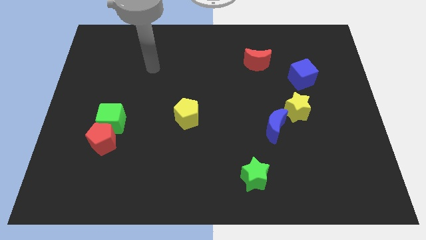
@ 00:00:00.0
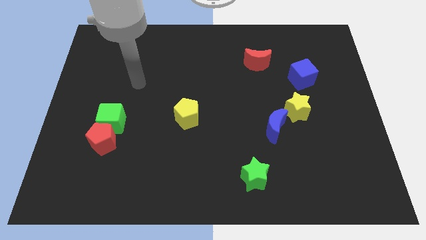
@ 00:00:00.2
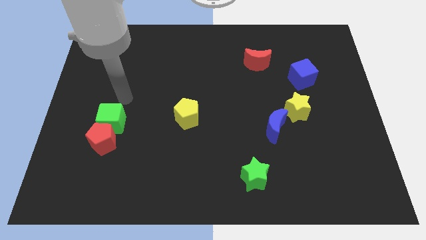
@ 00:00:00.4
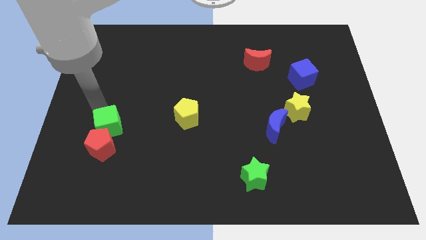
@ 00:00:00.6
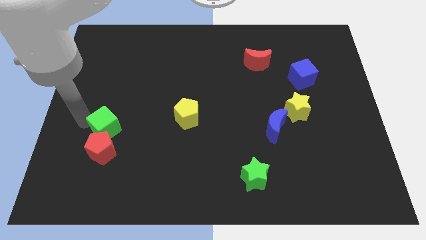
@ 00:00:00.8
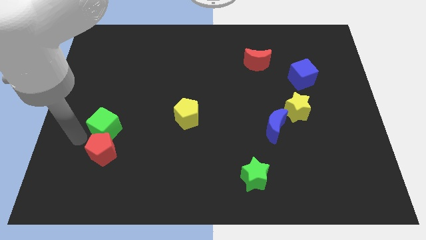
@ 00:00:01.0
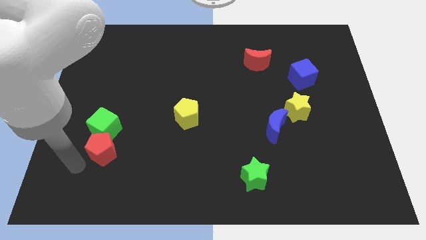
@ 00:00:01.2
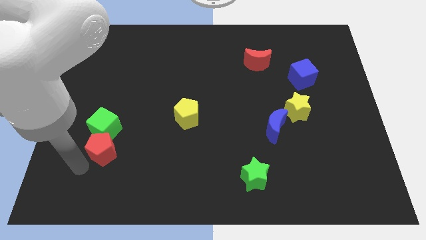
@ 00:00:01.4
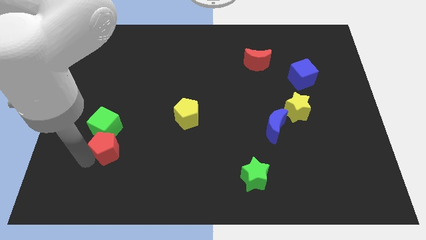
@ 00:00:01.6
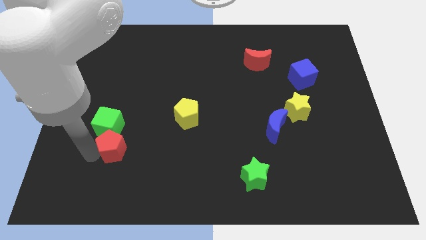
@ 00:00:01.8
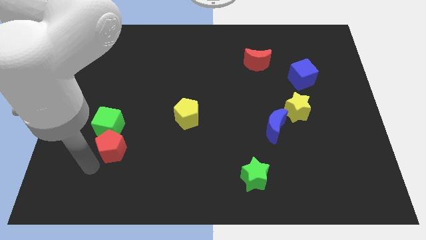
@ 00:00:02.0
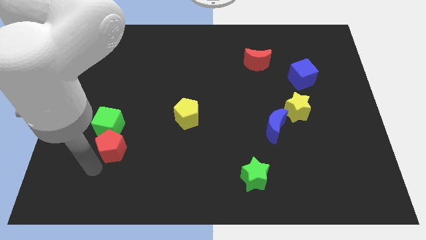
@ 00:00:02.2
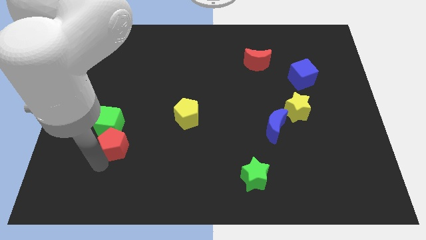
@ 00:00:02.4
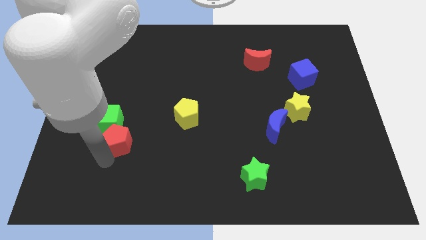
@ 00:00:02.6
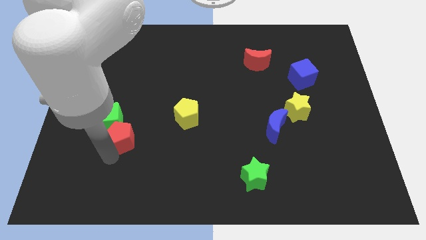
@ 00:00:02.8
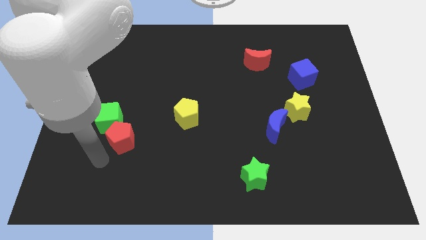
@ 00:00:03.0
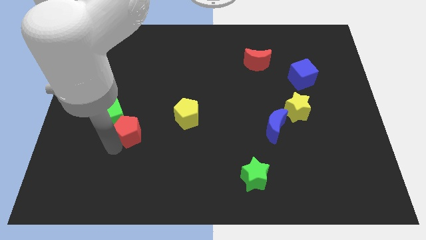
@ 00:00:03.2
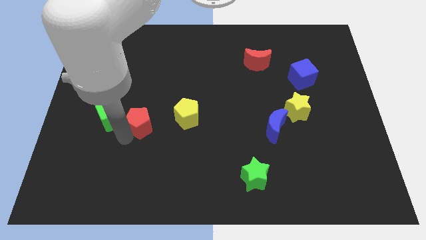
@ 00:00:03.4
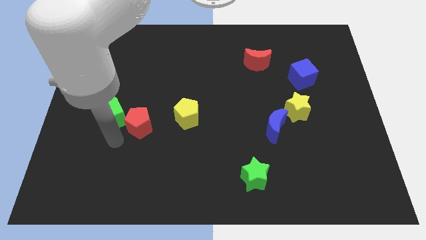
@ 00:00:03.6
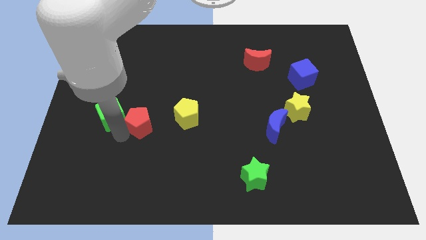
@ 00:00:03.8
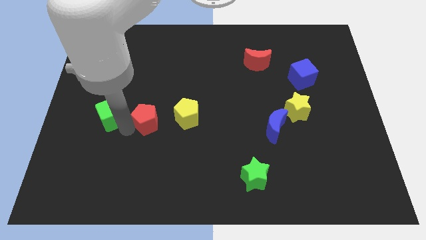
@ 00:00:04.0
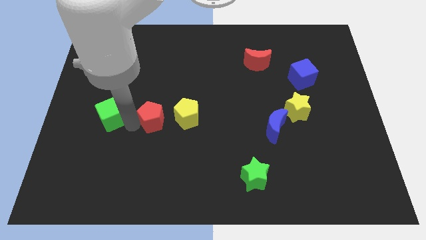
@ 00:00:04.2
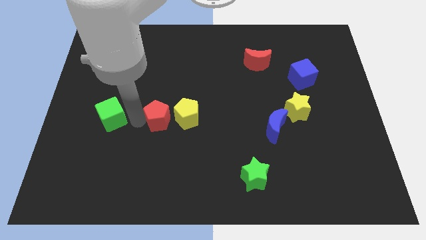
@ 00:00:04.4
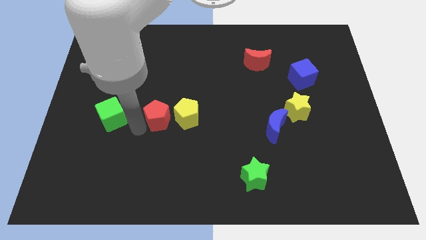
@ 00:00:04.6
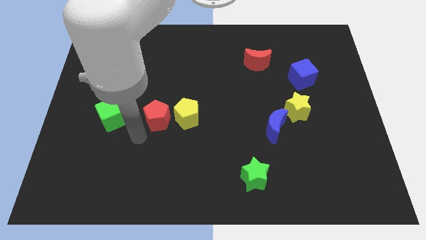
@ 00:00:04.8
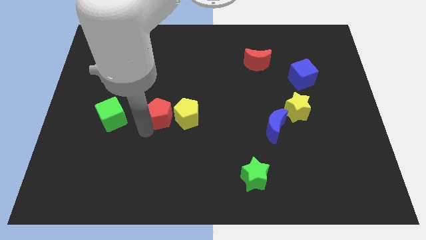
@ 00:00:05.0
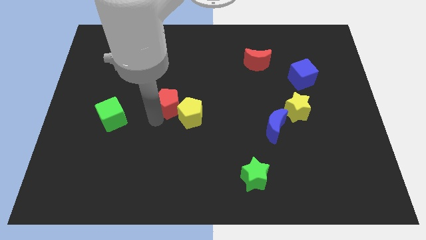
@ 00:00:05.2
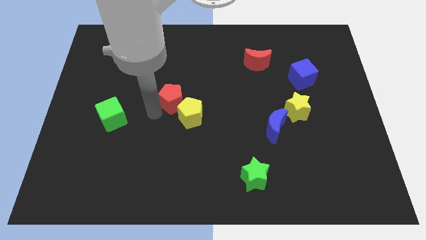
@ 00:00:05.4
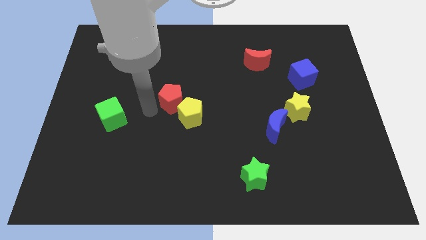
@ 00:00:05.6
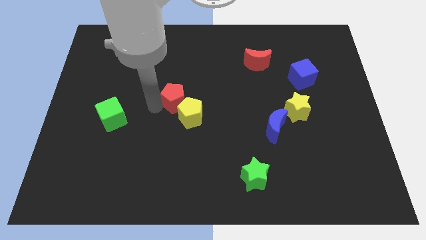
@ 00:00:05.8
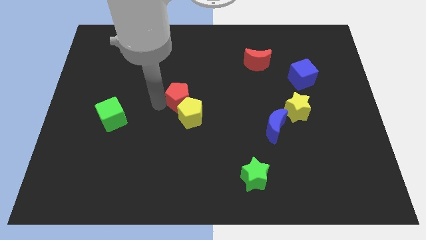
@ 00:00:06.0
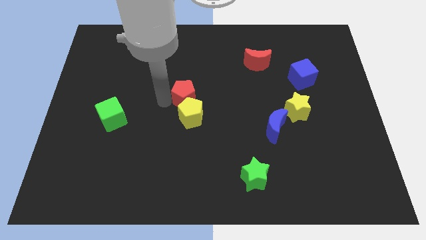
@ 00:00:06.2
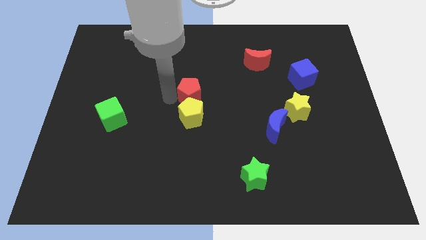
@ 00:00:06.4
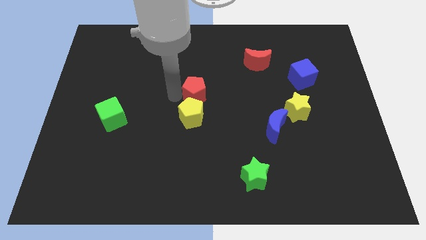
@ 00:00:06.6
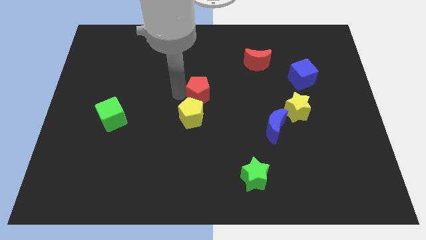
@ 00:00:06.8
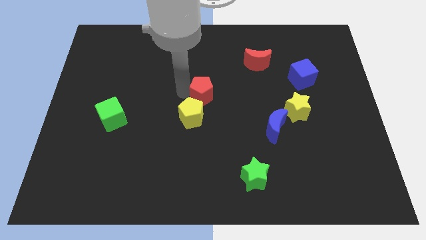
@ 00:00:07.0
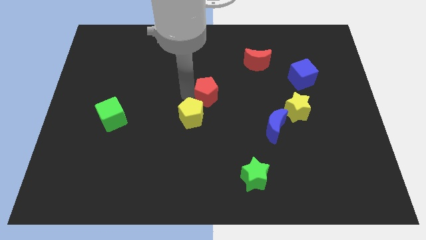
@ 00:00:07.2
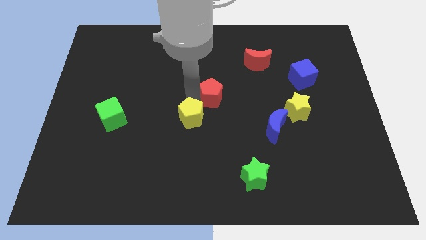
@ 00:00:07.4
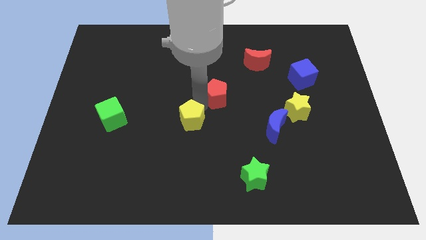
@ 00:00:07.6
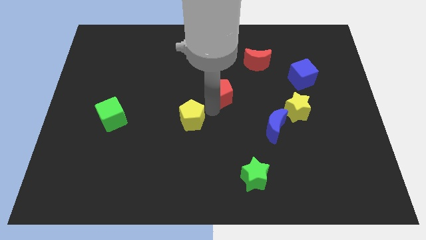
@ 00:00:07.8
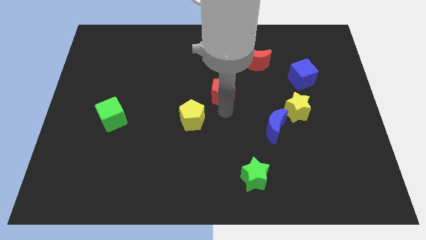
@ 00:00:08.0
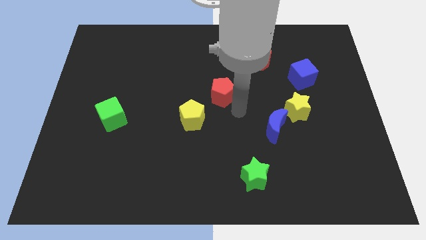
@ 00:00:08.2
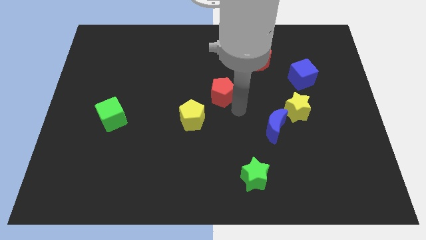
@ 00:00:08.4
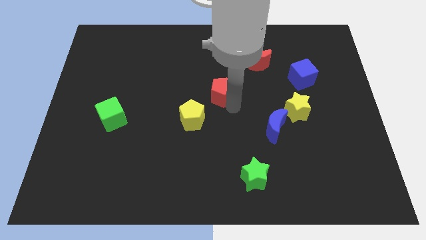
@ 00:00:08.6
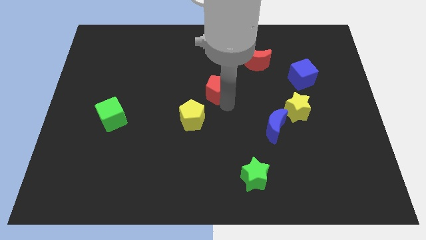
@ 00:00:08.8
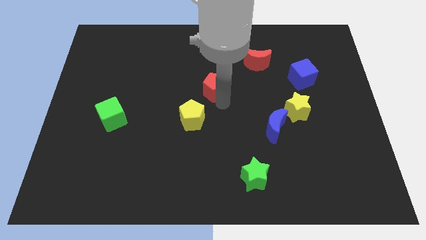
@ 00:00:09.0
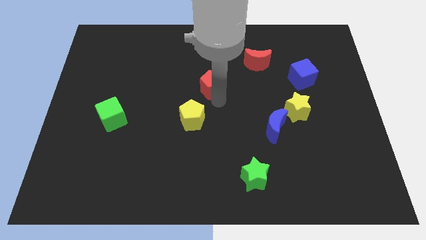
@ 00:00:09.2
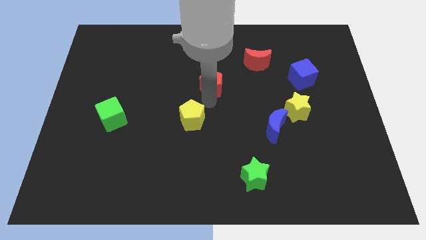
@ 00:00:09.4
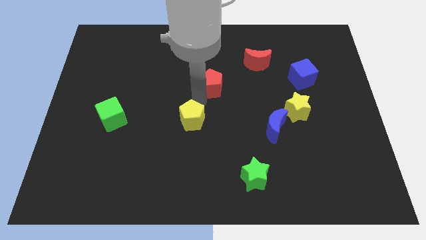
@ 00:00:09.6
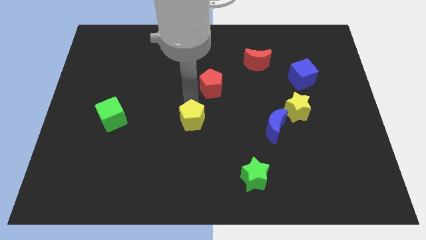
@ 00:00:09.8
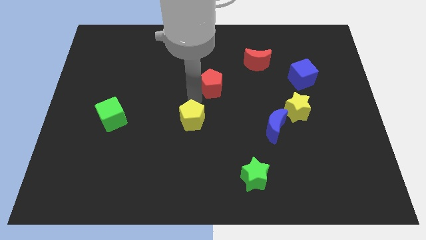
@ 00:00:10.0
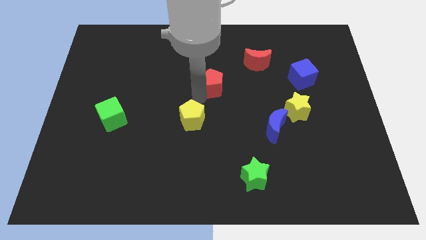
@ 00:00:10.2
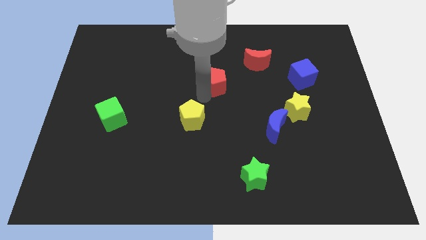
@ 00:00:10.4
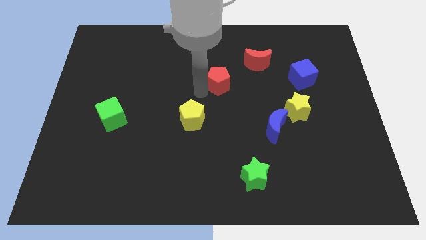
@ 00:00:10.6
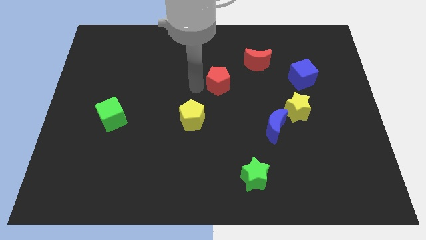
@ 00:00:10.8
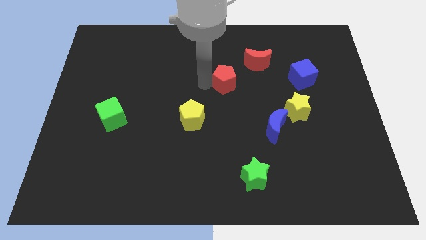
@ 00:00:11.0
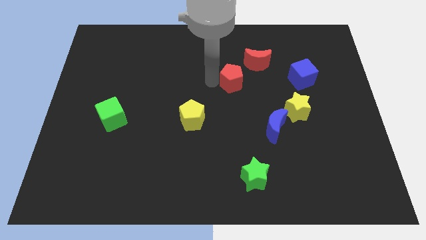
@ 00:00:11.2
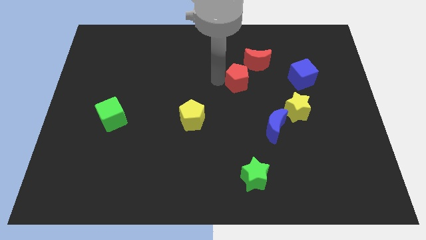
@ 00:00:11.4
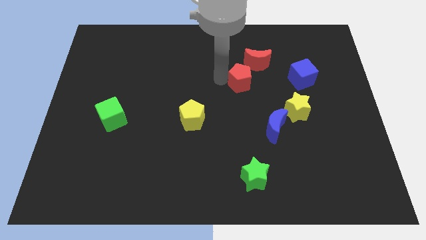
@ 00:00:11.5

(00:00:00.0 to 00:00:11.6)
move the red pentagon just left of the blue cube

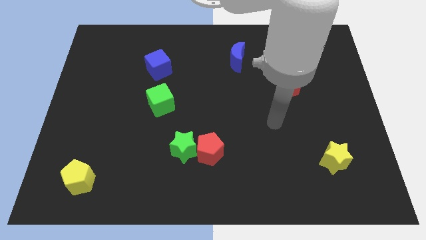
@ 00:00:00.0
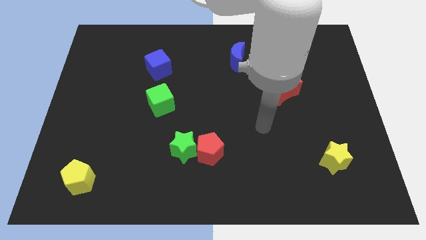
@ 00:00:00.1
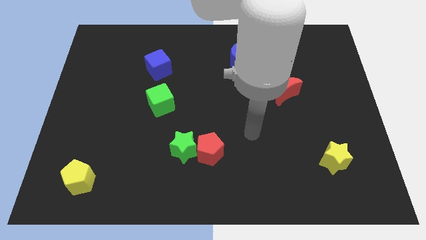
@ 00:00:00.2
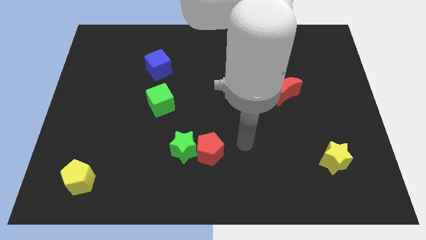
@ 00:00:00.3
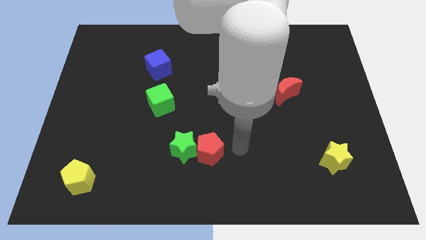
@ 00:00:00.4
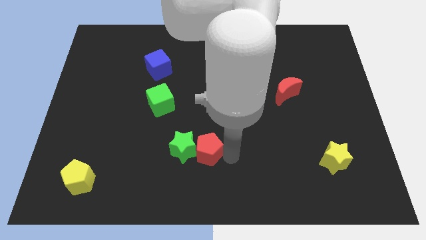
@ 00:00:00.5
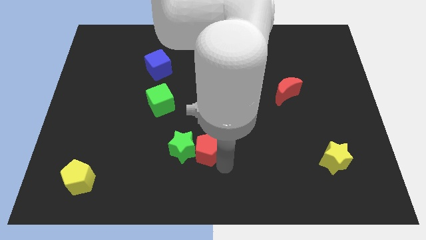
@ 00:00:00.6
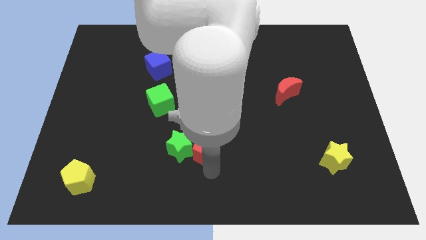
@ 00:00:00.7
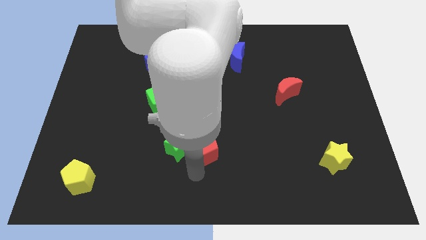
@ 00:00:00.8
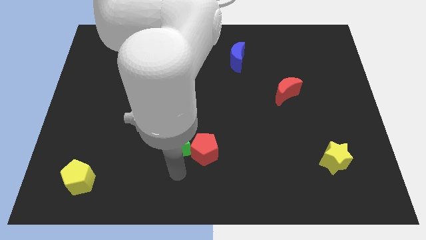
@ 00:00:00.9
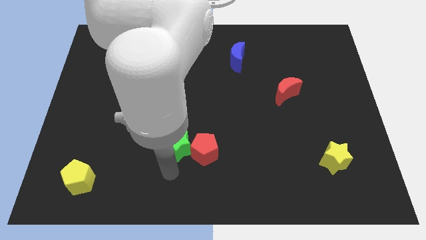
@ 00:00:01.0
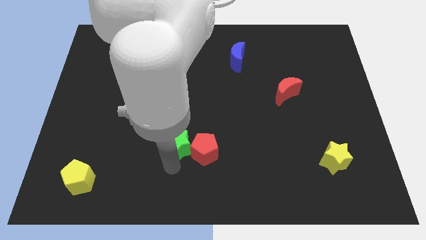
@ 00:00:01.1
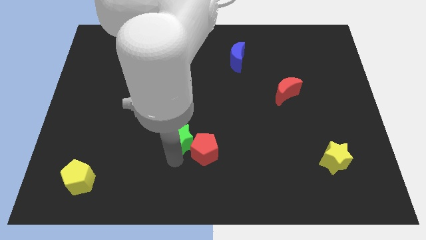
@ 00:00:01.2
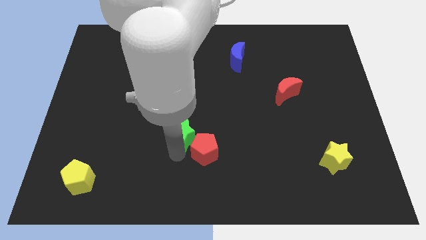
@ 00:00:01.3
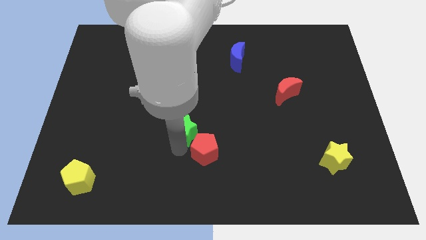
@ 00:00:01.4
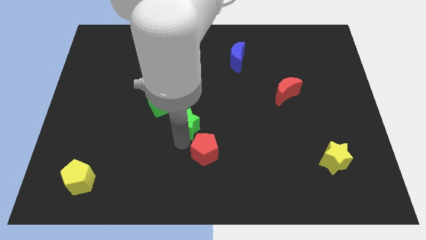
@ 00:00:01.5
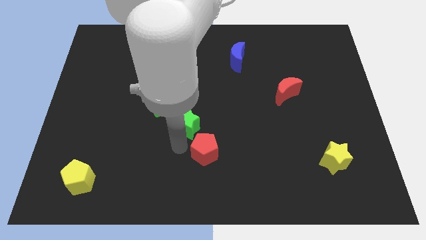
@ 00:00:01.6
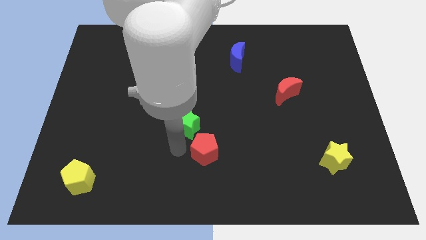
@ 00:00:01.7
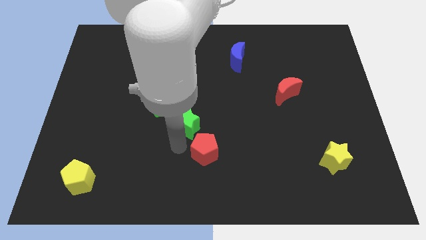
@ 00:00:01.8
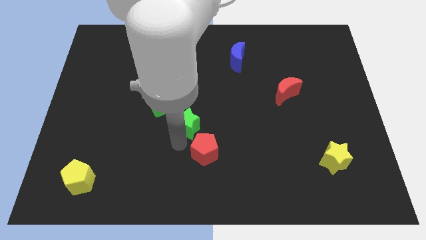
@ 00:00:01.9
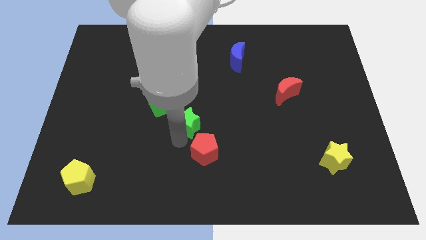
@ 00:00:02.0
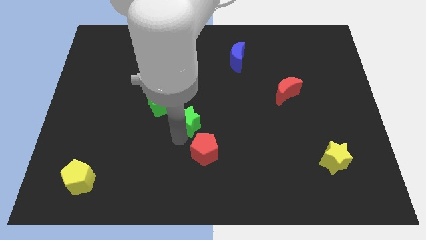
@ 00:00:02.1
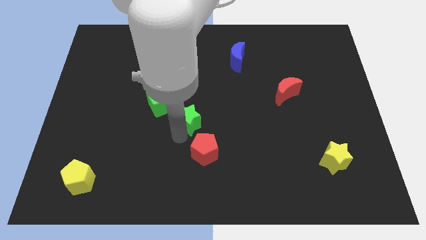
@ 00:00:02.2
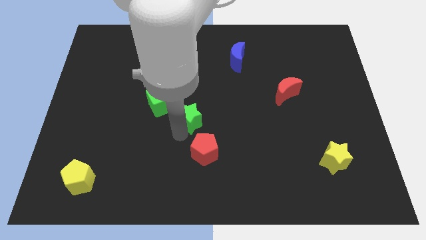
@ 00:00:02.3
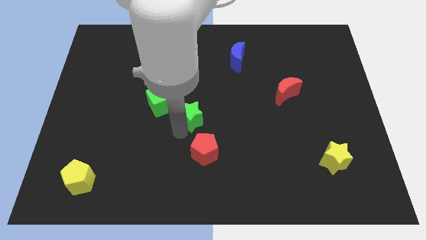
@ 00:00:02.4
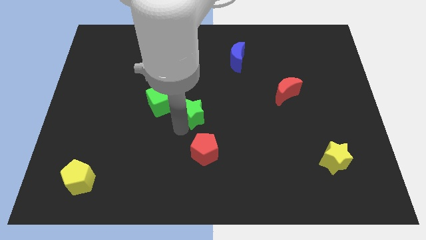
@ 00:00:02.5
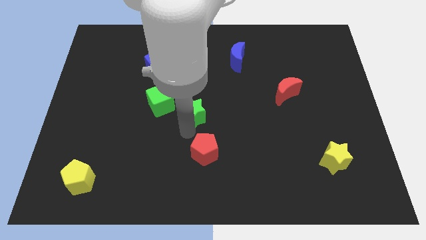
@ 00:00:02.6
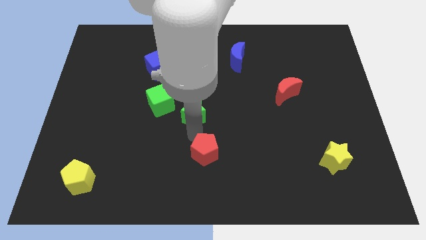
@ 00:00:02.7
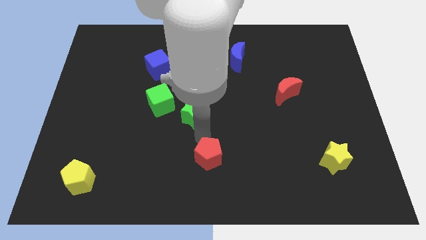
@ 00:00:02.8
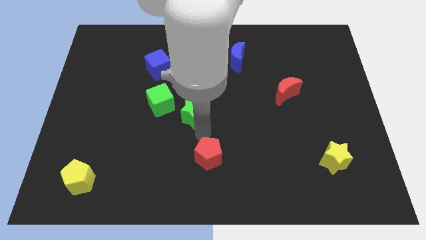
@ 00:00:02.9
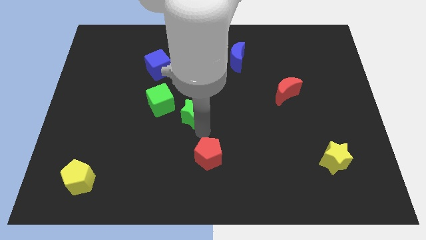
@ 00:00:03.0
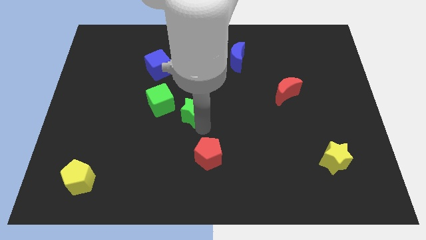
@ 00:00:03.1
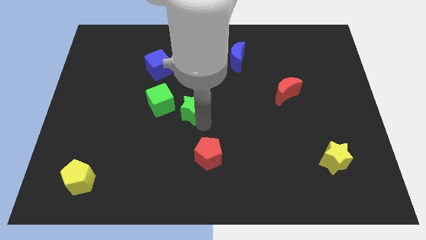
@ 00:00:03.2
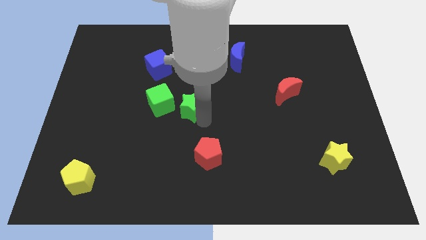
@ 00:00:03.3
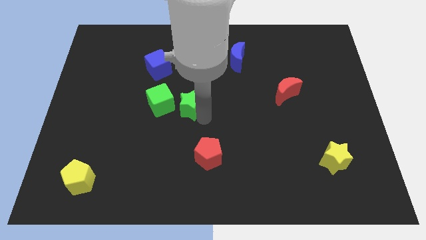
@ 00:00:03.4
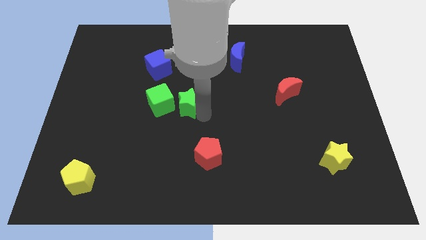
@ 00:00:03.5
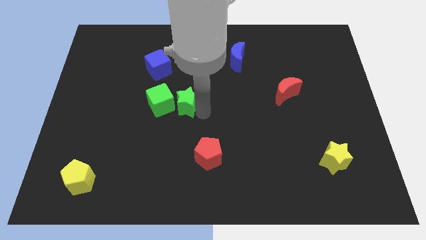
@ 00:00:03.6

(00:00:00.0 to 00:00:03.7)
move the green star to the top right of the green cube
